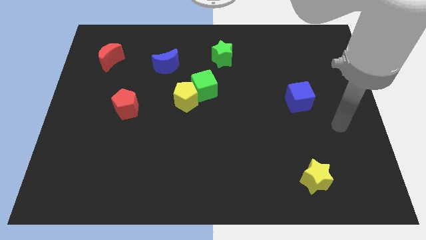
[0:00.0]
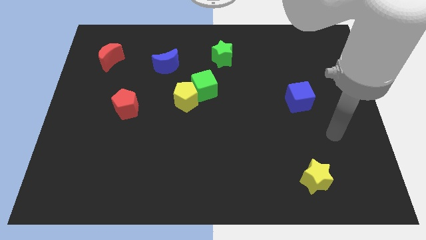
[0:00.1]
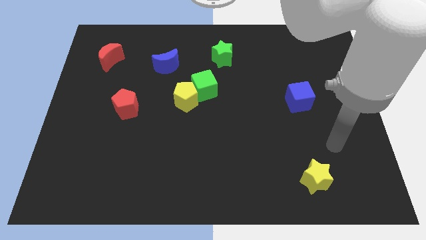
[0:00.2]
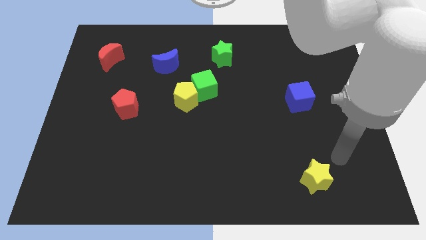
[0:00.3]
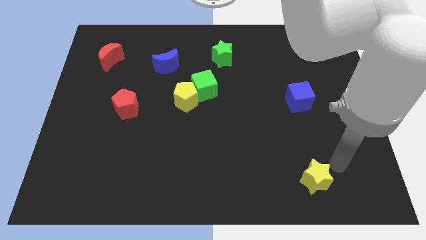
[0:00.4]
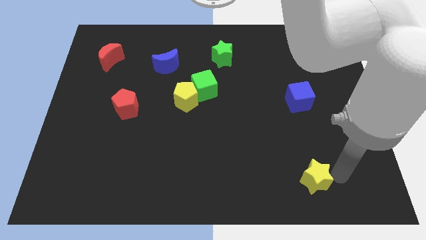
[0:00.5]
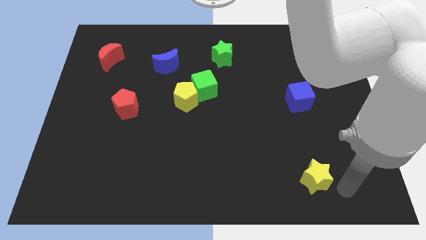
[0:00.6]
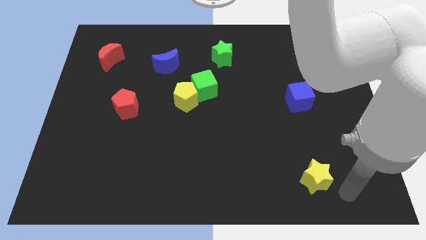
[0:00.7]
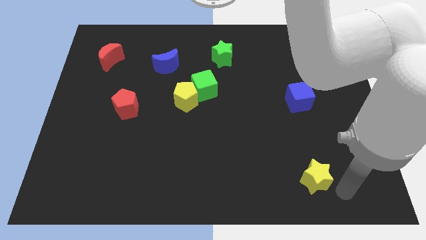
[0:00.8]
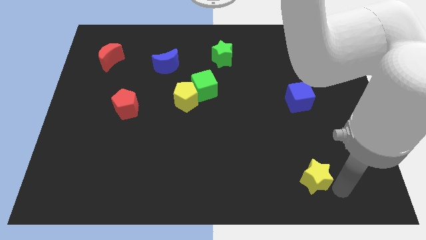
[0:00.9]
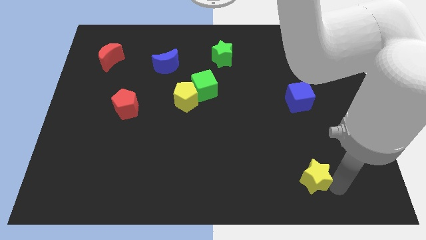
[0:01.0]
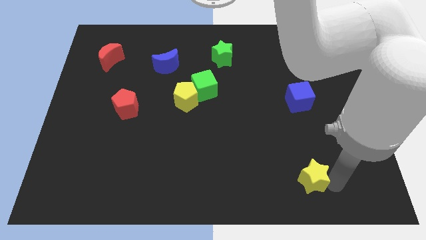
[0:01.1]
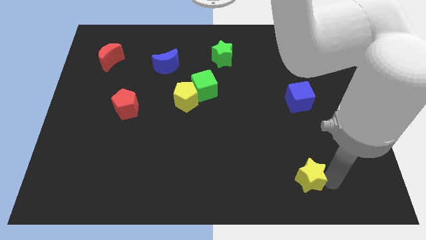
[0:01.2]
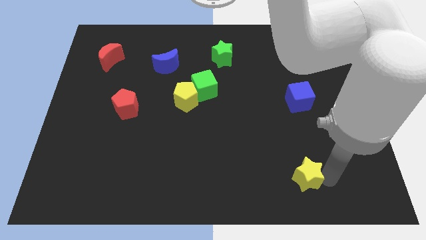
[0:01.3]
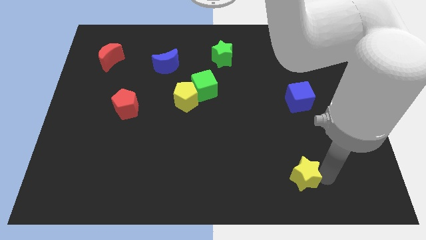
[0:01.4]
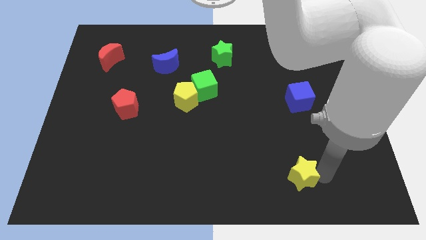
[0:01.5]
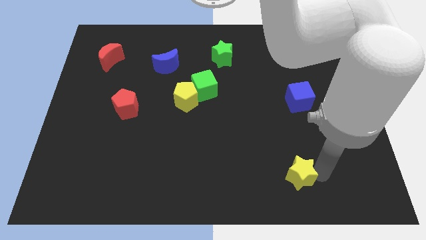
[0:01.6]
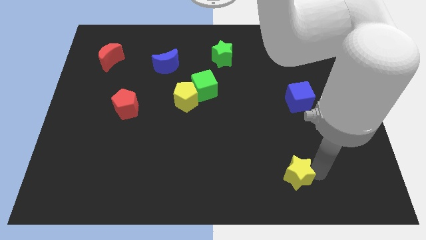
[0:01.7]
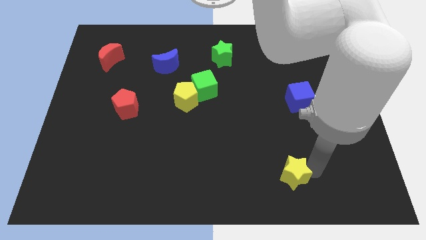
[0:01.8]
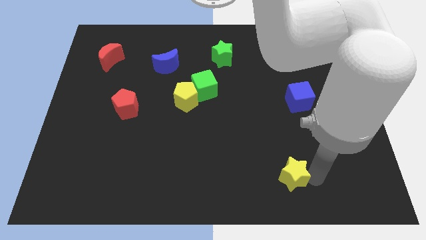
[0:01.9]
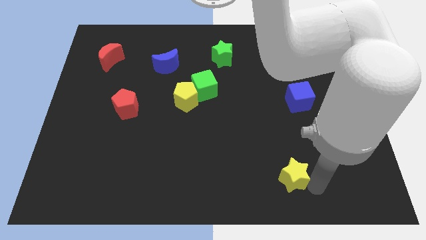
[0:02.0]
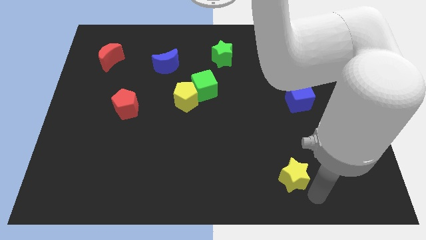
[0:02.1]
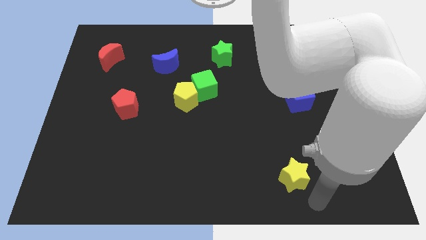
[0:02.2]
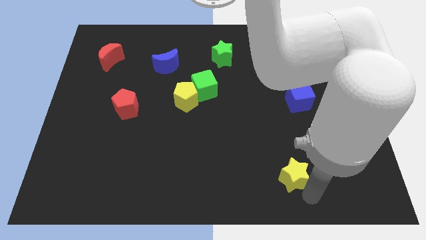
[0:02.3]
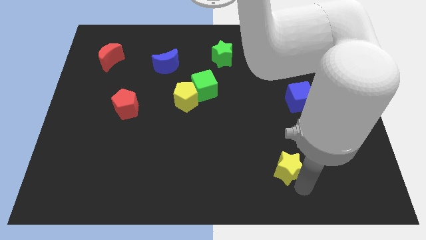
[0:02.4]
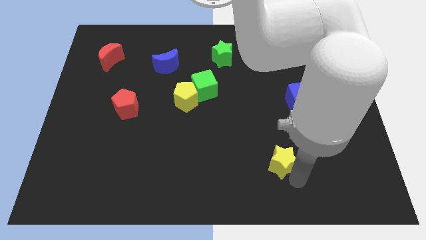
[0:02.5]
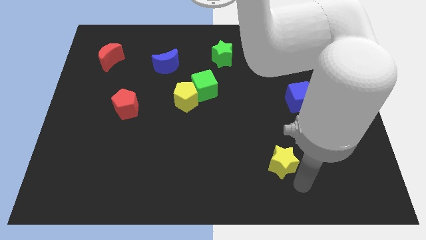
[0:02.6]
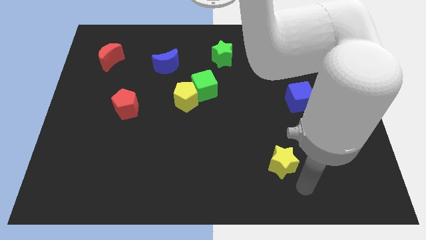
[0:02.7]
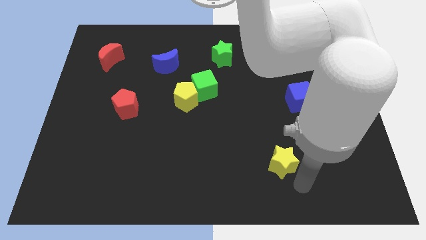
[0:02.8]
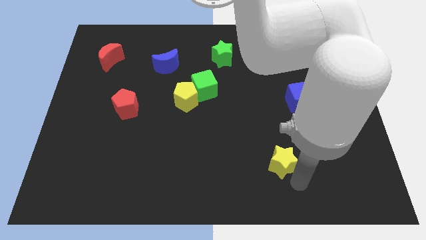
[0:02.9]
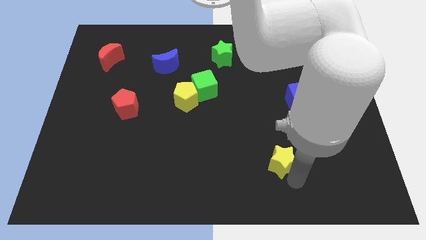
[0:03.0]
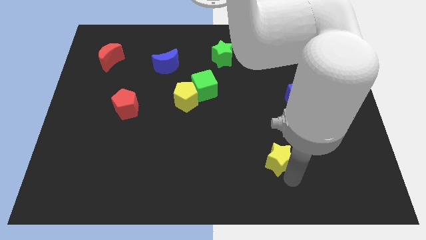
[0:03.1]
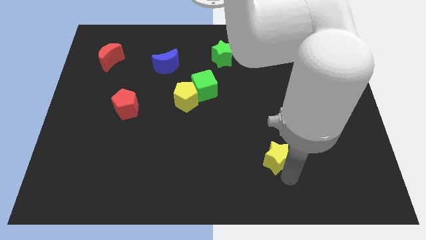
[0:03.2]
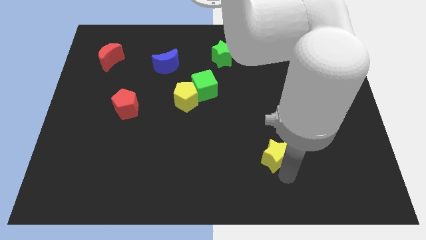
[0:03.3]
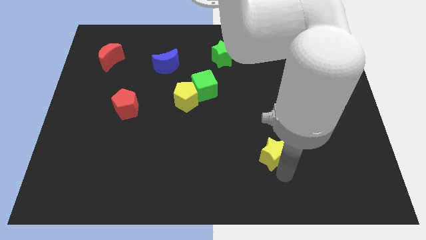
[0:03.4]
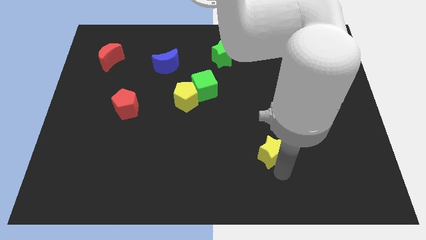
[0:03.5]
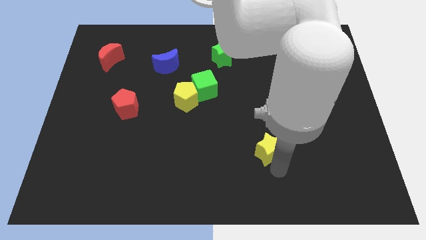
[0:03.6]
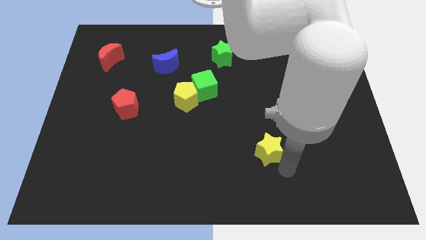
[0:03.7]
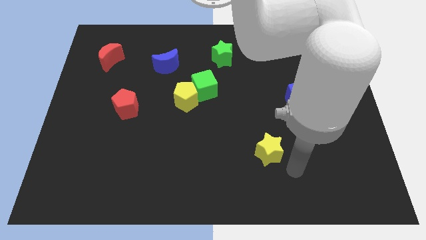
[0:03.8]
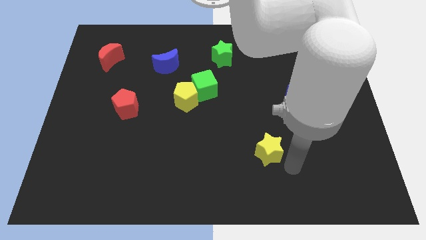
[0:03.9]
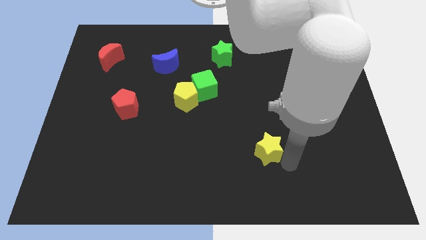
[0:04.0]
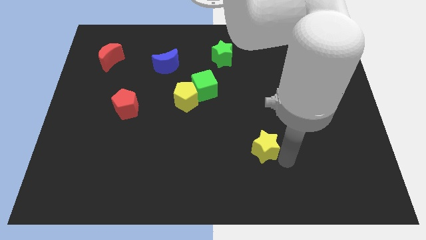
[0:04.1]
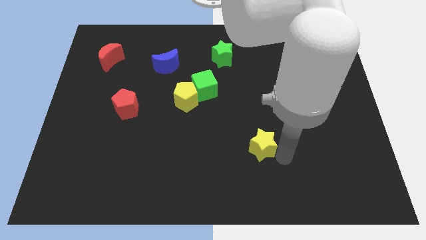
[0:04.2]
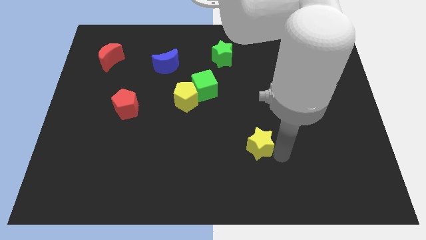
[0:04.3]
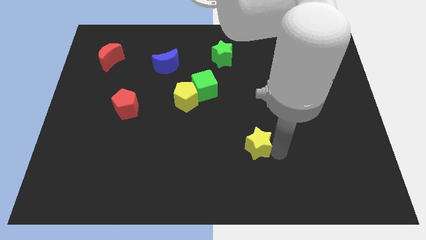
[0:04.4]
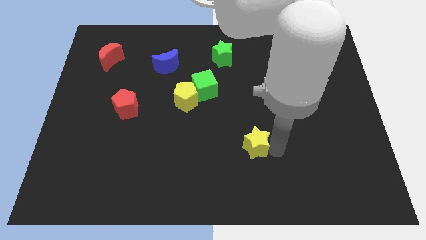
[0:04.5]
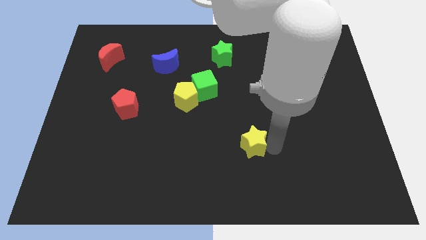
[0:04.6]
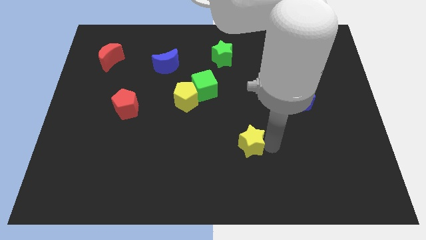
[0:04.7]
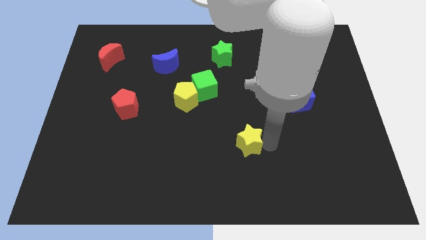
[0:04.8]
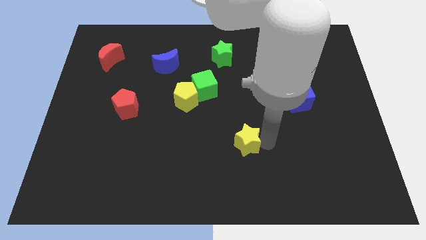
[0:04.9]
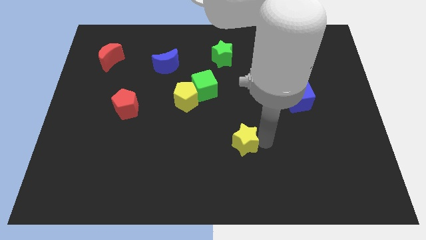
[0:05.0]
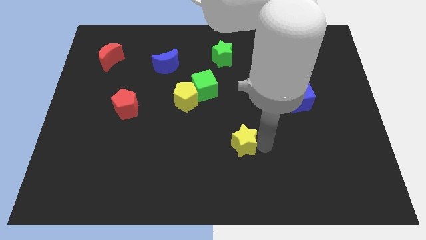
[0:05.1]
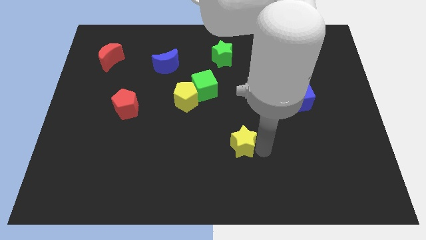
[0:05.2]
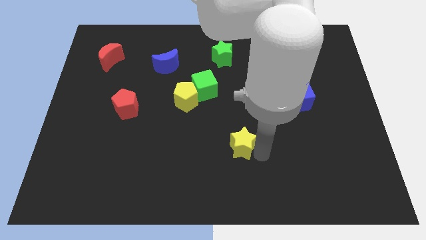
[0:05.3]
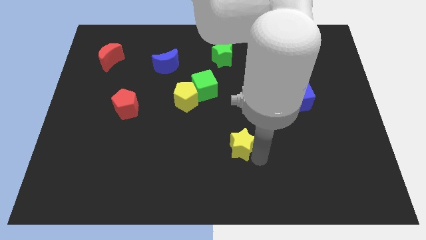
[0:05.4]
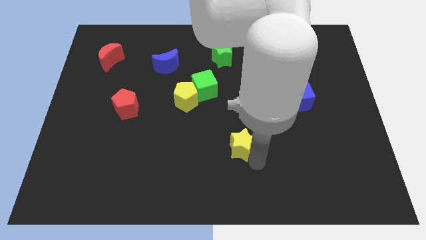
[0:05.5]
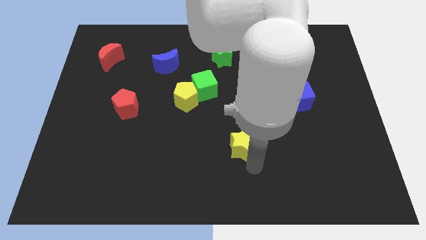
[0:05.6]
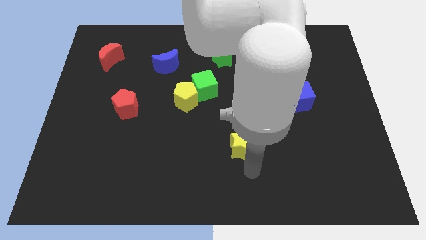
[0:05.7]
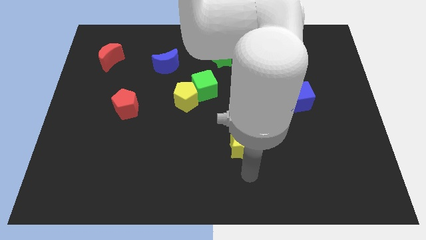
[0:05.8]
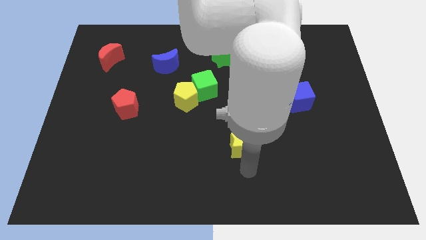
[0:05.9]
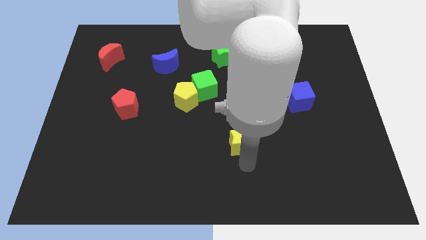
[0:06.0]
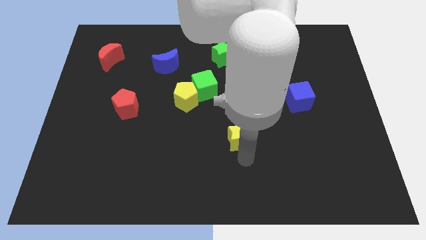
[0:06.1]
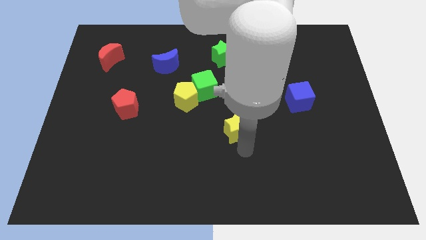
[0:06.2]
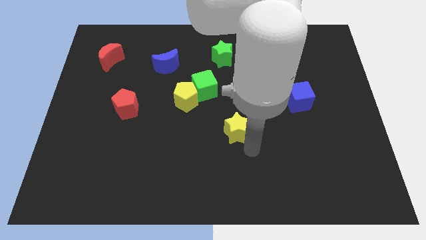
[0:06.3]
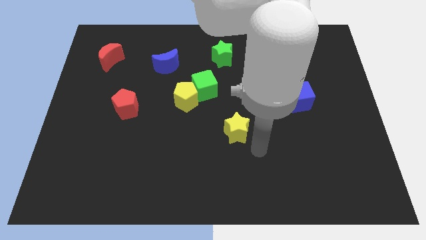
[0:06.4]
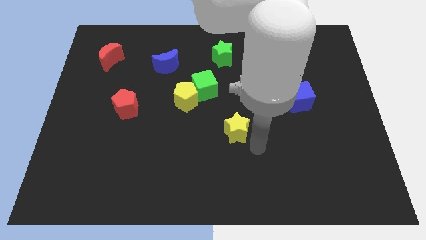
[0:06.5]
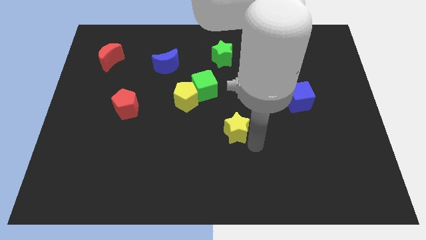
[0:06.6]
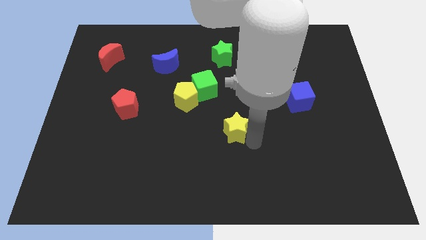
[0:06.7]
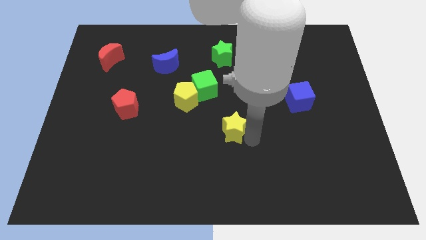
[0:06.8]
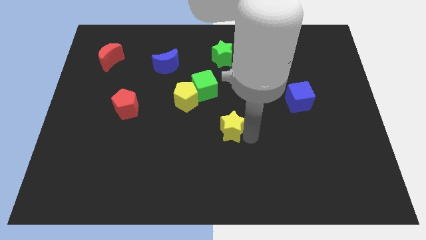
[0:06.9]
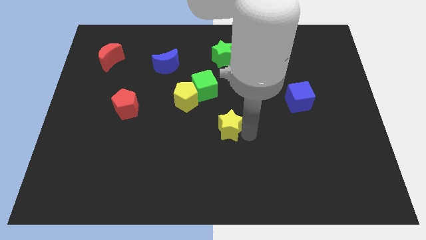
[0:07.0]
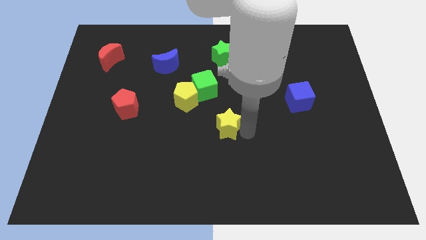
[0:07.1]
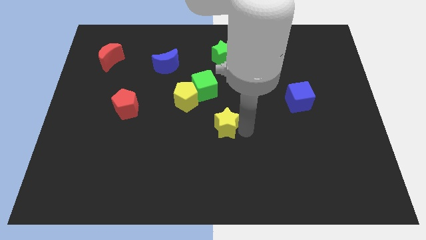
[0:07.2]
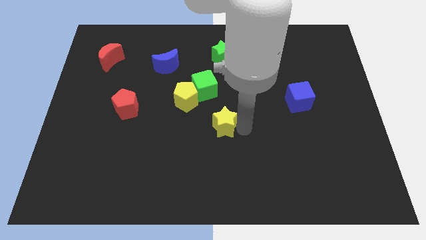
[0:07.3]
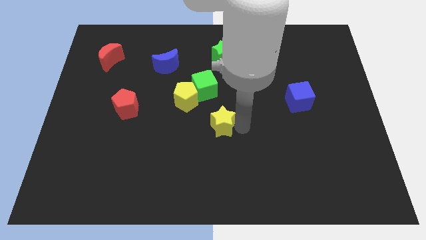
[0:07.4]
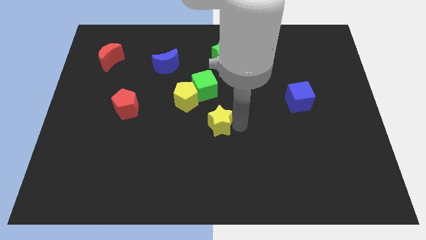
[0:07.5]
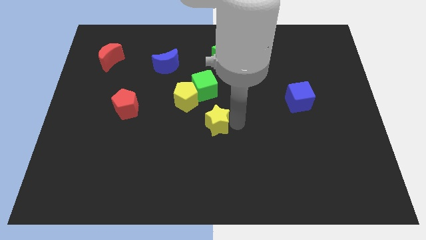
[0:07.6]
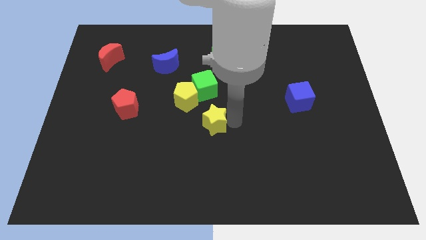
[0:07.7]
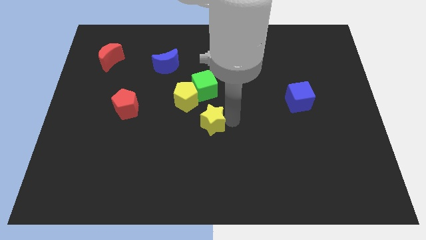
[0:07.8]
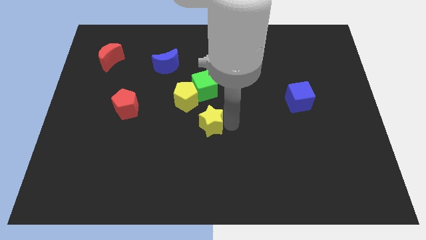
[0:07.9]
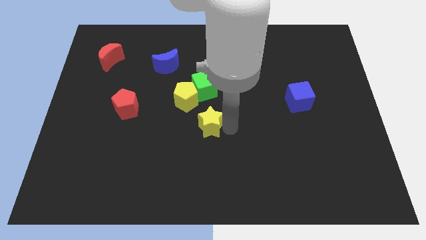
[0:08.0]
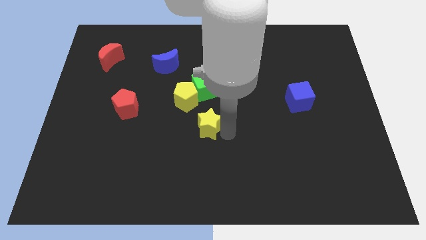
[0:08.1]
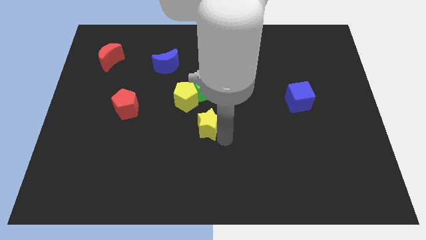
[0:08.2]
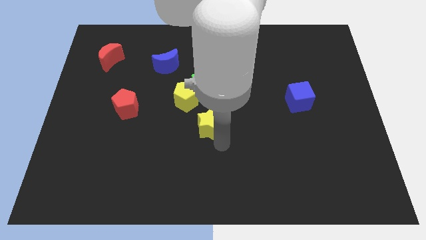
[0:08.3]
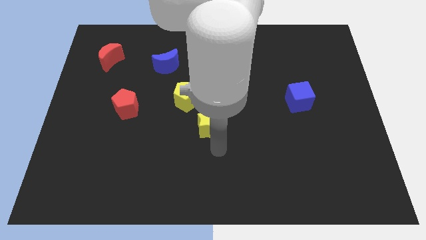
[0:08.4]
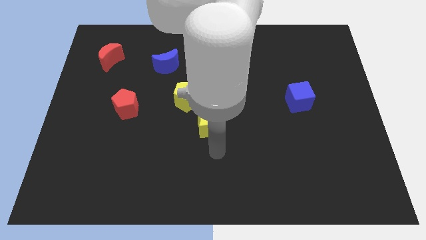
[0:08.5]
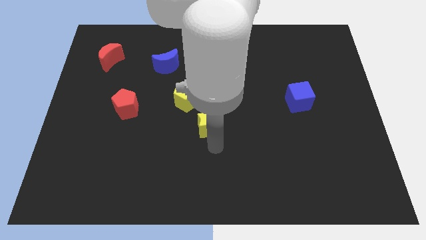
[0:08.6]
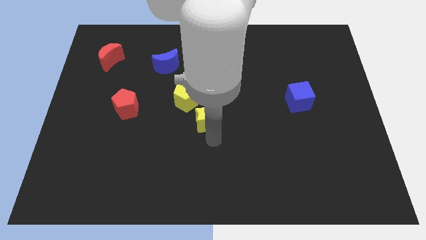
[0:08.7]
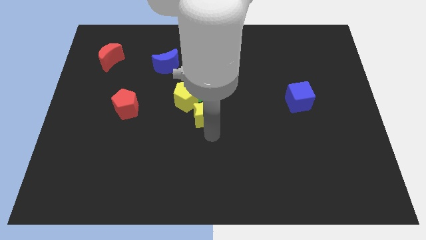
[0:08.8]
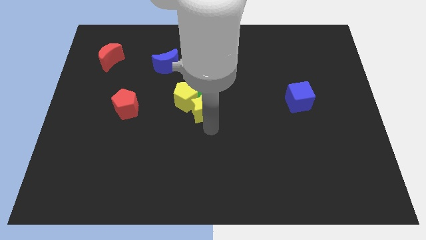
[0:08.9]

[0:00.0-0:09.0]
slide the yellow star to the yellow pentagon
